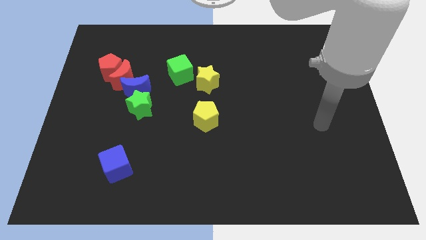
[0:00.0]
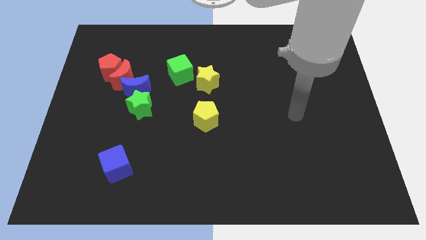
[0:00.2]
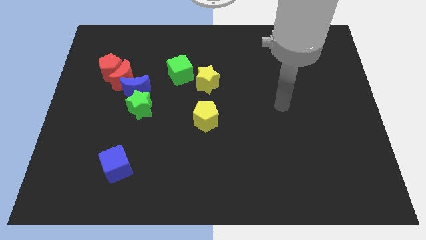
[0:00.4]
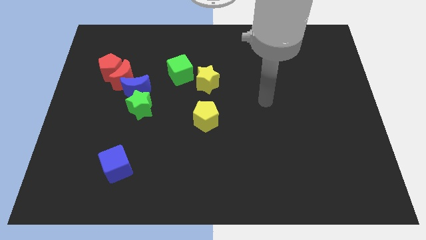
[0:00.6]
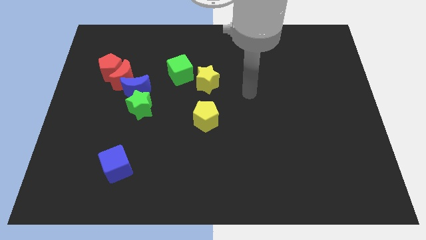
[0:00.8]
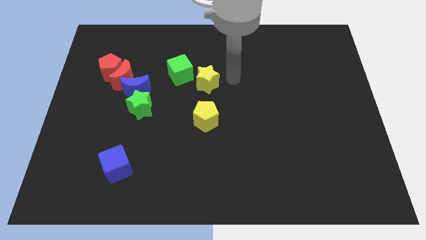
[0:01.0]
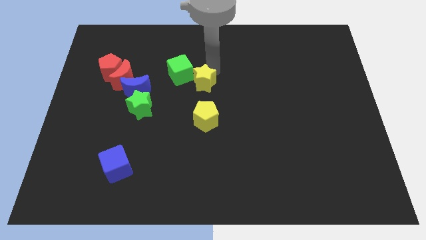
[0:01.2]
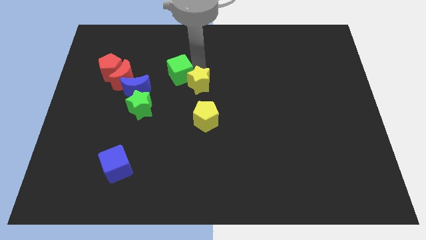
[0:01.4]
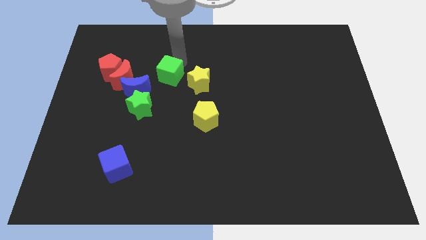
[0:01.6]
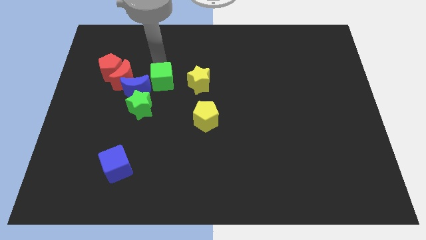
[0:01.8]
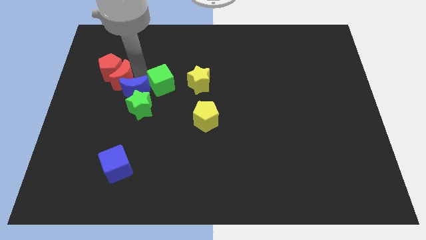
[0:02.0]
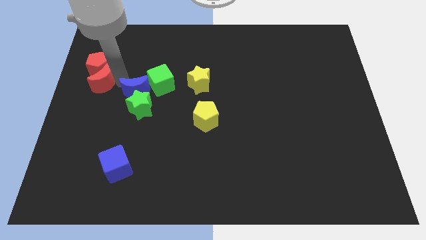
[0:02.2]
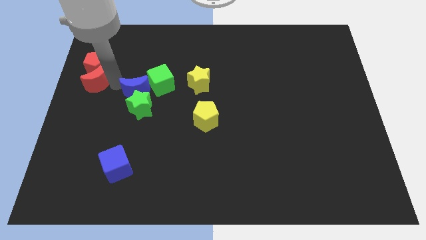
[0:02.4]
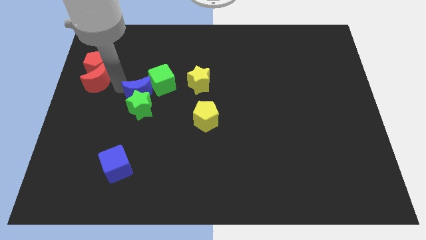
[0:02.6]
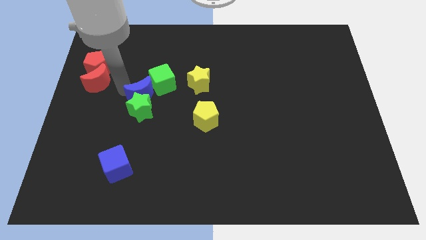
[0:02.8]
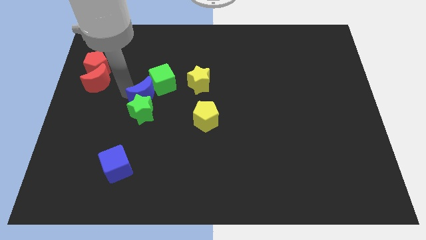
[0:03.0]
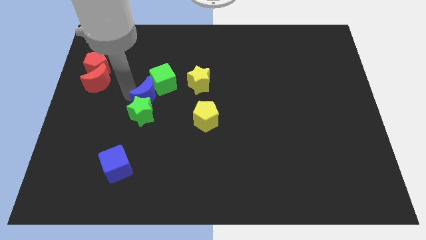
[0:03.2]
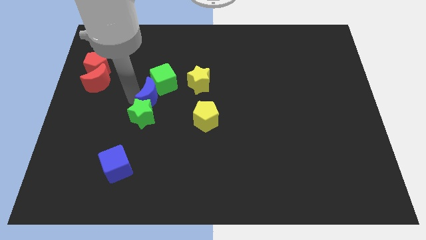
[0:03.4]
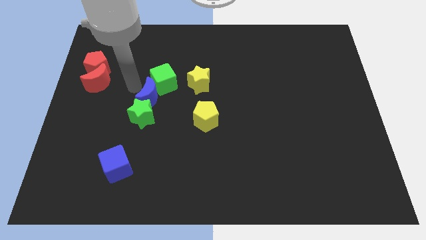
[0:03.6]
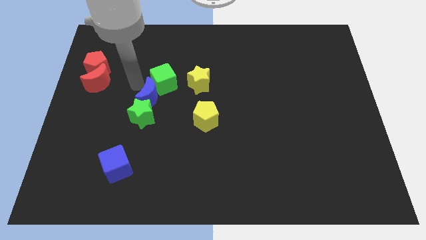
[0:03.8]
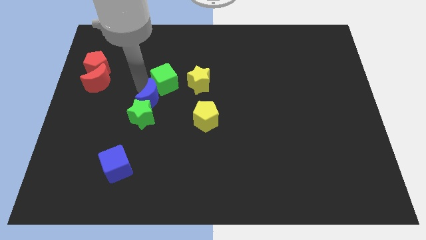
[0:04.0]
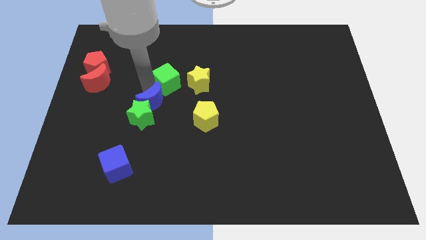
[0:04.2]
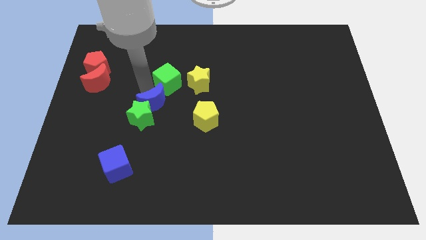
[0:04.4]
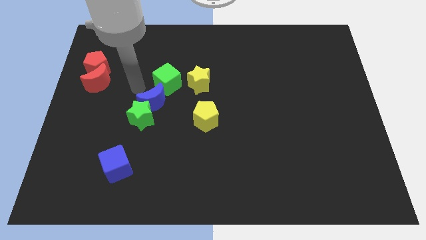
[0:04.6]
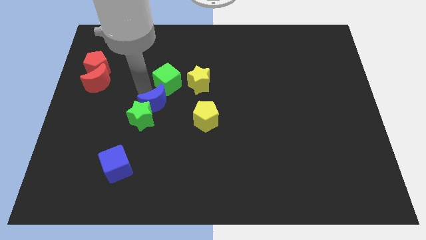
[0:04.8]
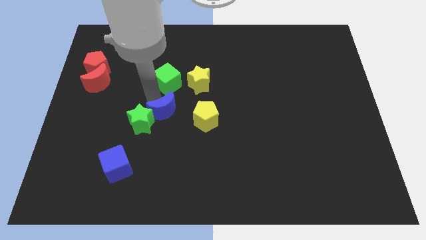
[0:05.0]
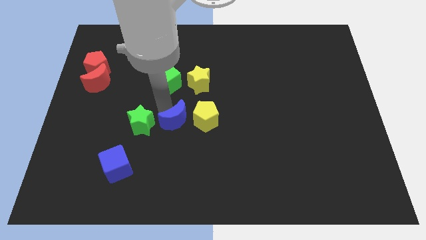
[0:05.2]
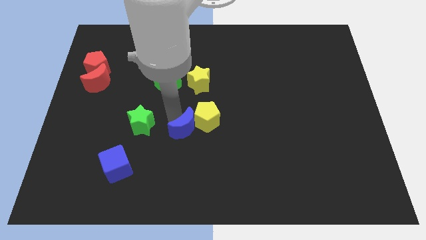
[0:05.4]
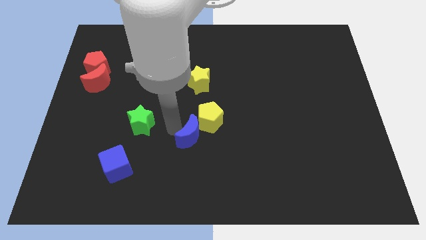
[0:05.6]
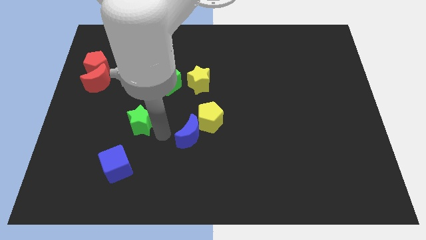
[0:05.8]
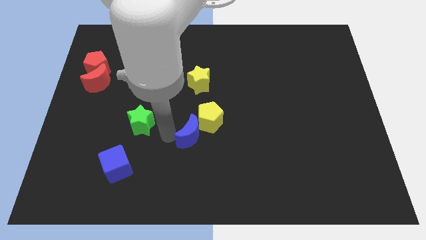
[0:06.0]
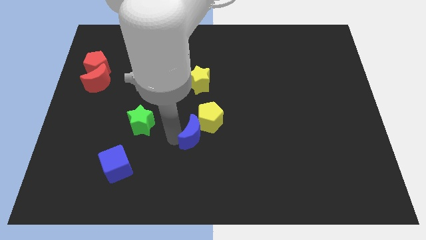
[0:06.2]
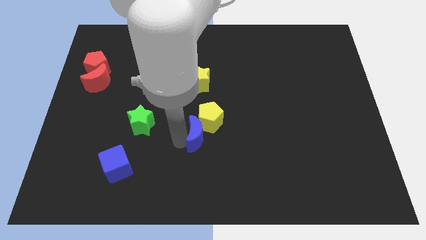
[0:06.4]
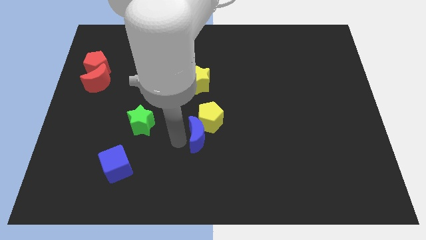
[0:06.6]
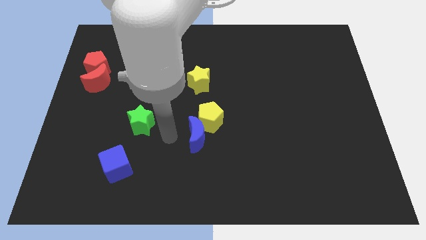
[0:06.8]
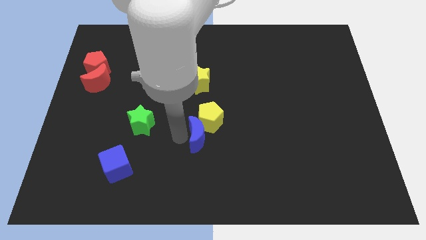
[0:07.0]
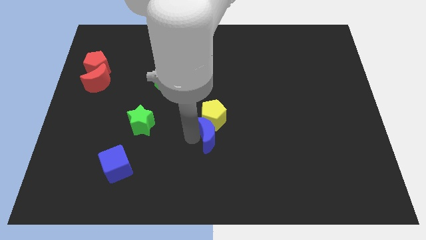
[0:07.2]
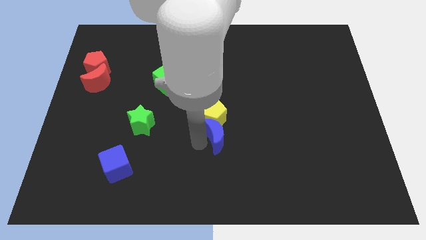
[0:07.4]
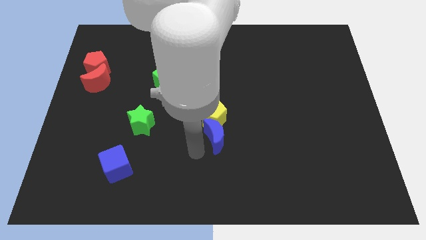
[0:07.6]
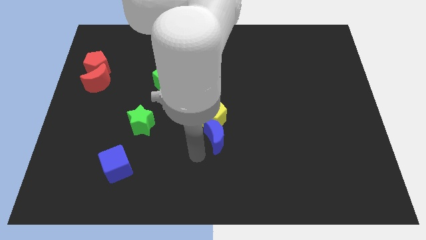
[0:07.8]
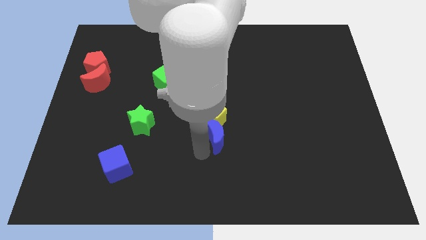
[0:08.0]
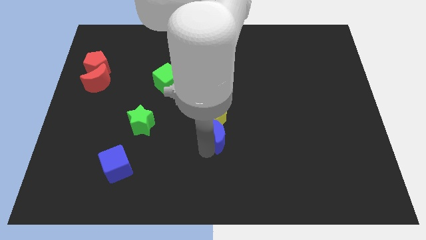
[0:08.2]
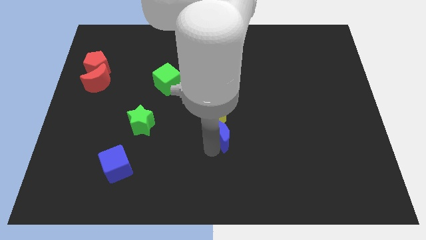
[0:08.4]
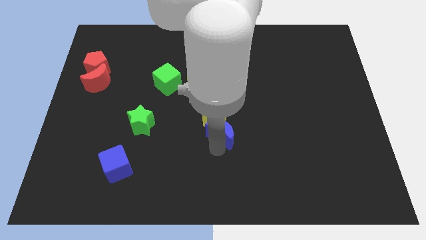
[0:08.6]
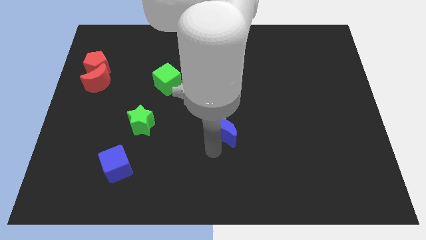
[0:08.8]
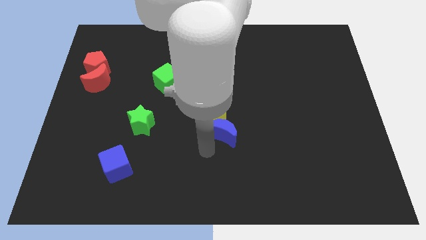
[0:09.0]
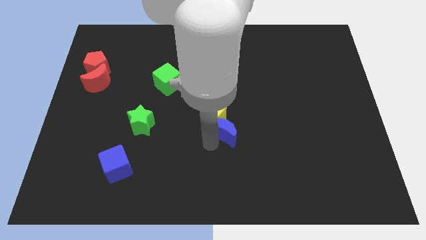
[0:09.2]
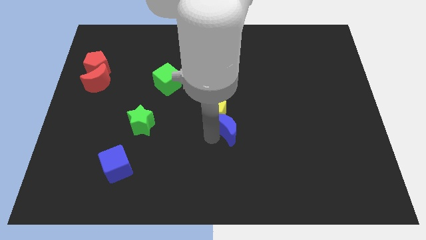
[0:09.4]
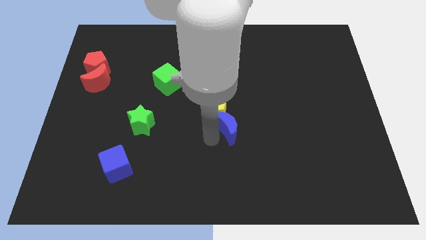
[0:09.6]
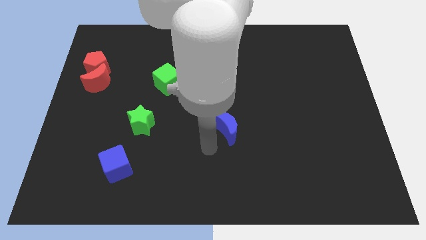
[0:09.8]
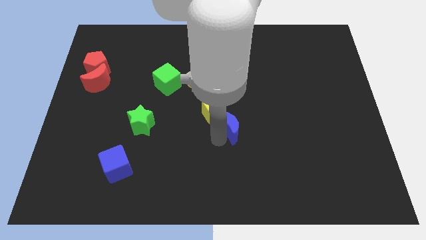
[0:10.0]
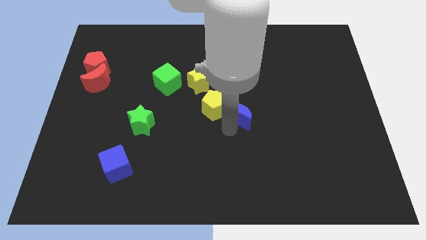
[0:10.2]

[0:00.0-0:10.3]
move the blue moon to the right

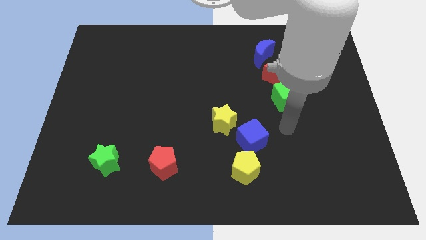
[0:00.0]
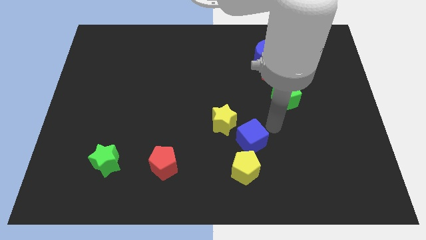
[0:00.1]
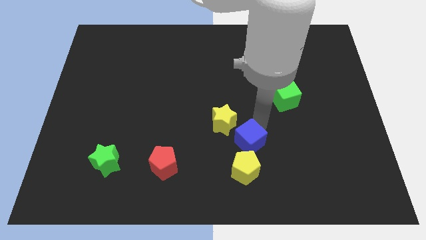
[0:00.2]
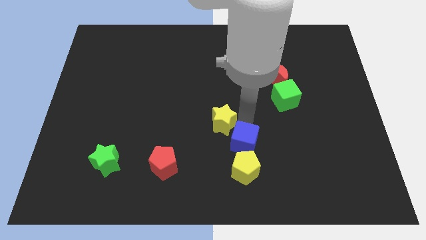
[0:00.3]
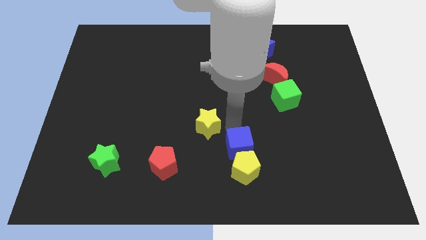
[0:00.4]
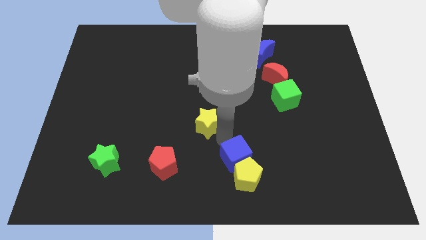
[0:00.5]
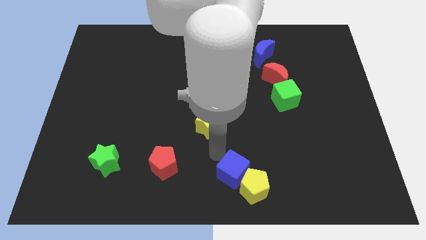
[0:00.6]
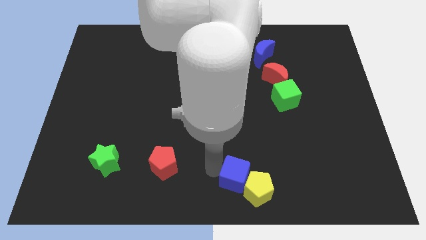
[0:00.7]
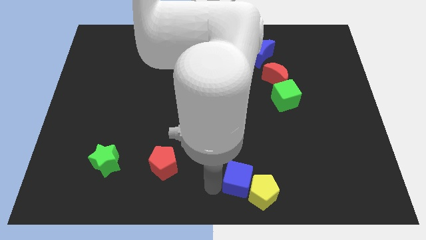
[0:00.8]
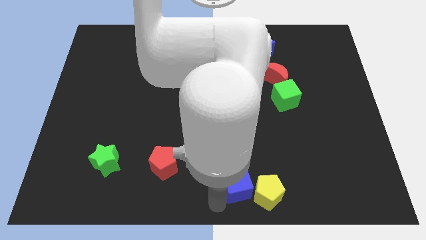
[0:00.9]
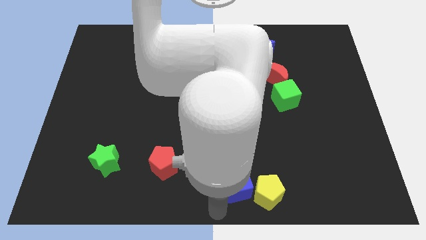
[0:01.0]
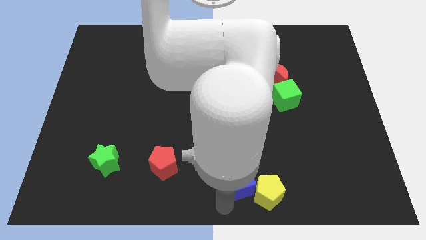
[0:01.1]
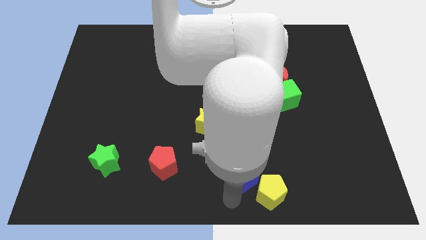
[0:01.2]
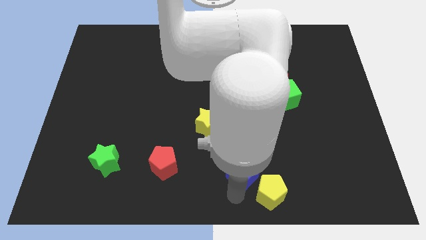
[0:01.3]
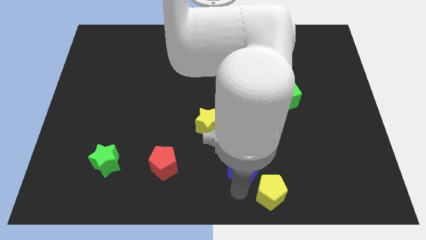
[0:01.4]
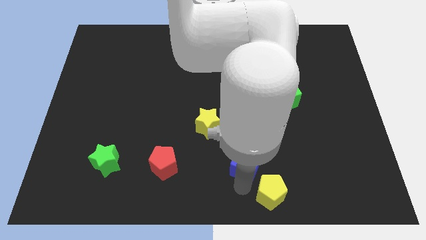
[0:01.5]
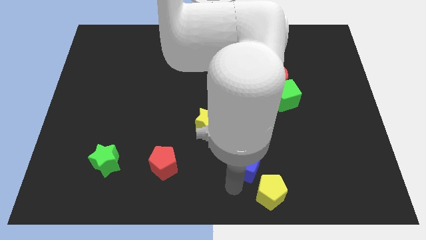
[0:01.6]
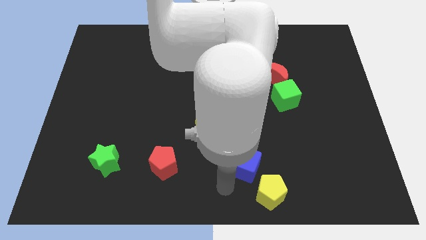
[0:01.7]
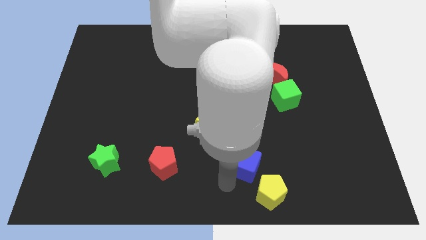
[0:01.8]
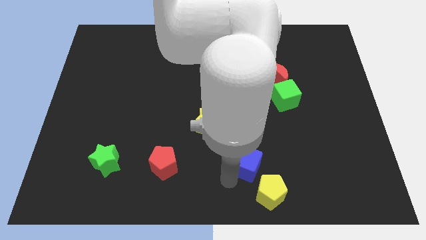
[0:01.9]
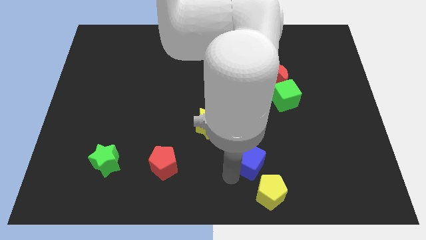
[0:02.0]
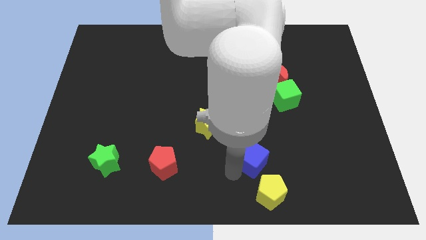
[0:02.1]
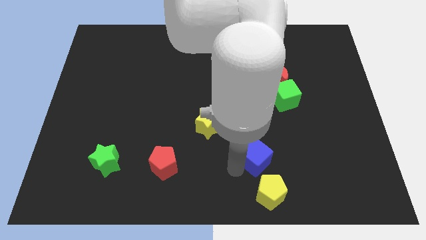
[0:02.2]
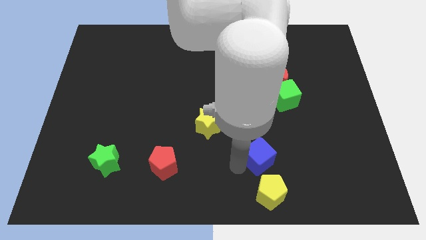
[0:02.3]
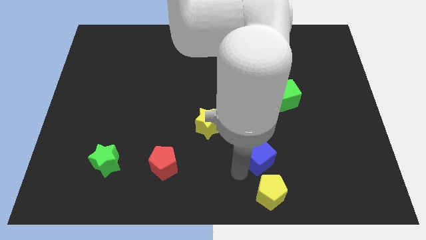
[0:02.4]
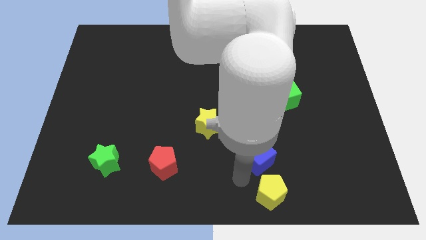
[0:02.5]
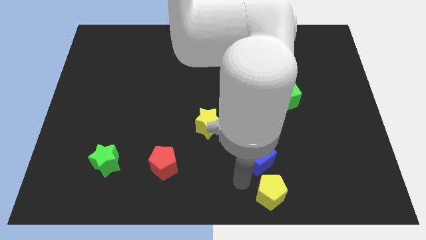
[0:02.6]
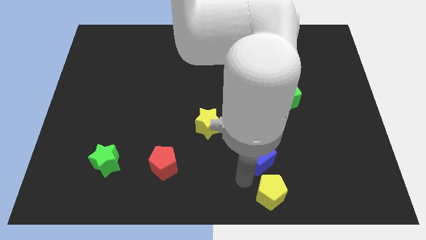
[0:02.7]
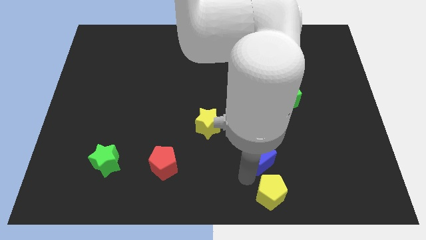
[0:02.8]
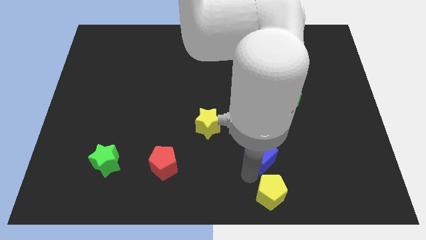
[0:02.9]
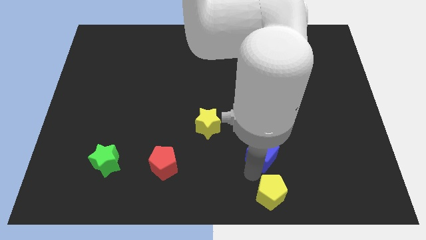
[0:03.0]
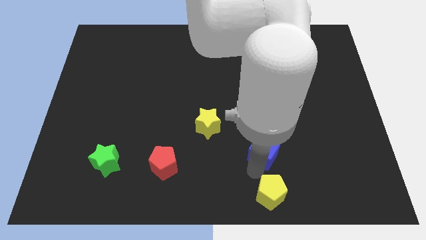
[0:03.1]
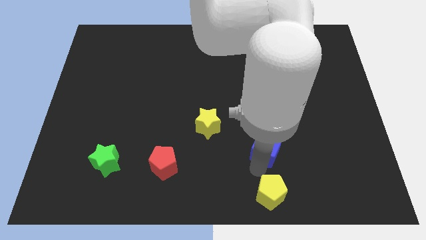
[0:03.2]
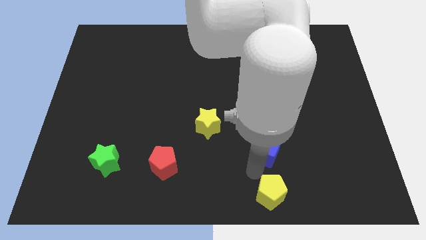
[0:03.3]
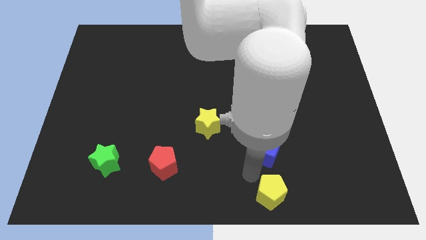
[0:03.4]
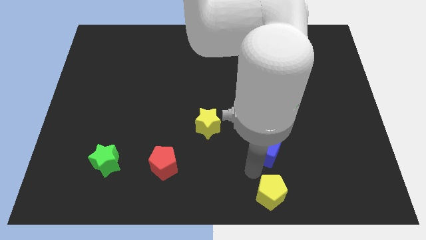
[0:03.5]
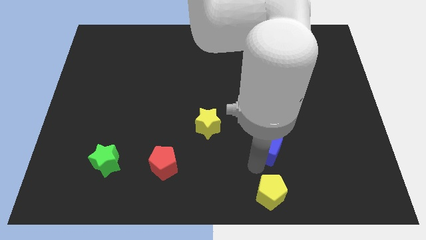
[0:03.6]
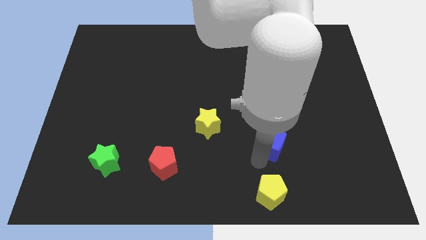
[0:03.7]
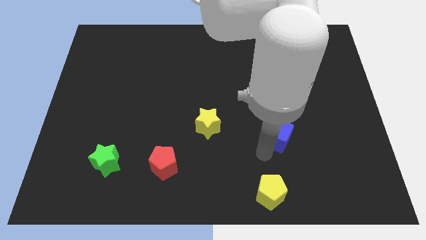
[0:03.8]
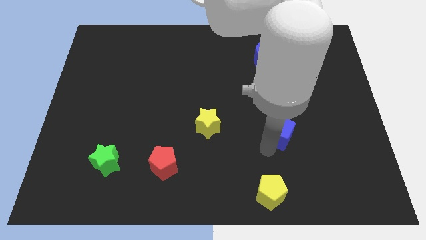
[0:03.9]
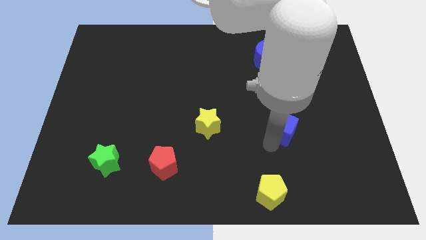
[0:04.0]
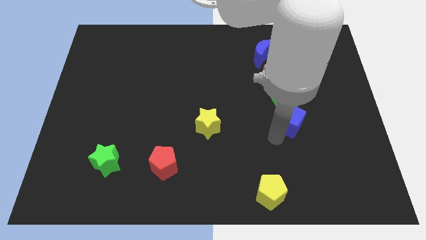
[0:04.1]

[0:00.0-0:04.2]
move the blue cube somewhat upwards and right
